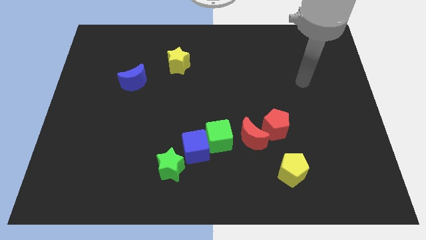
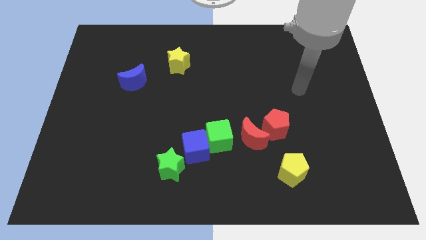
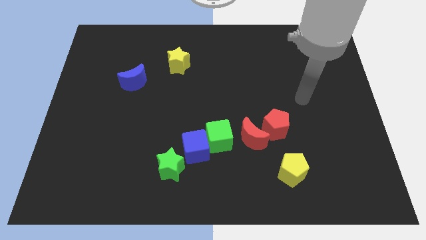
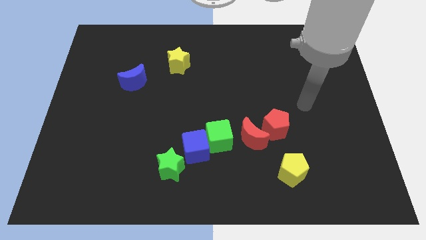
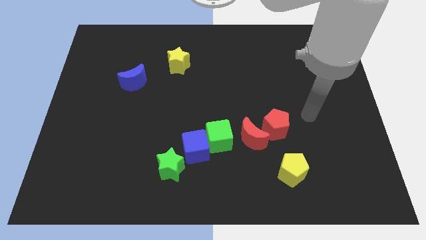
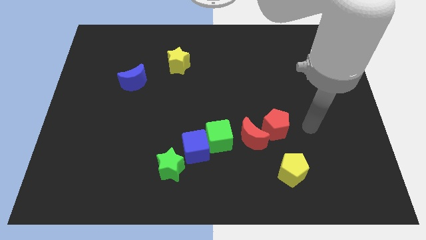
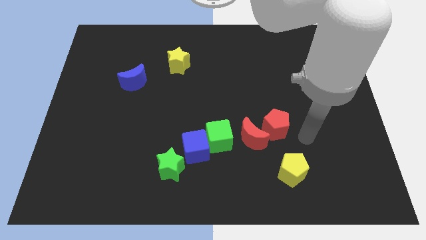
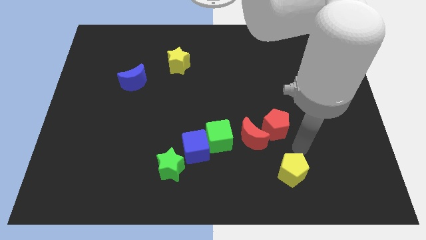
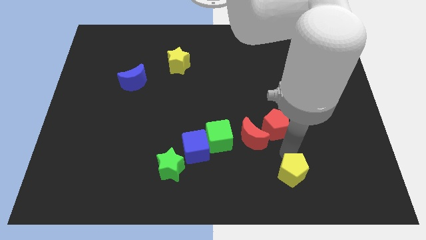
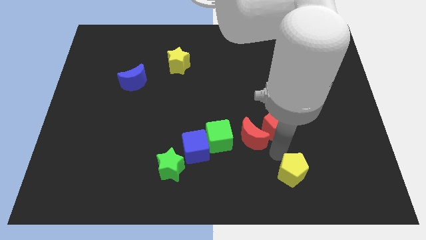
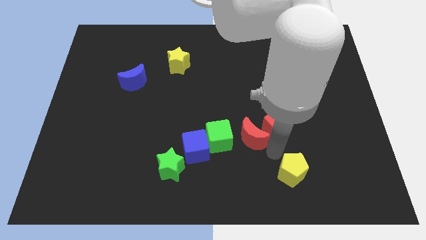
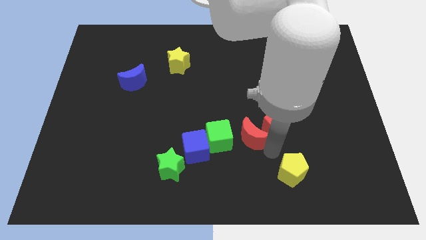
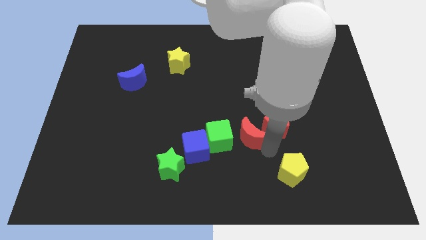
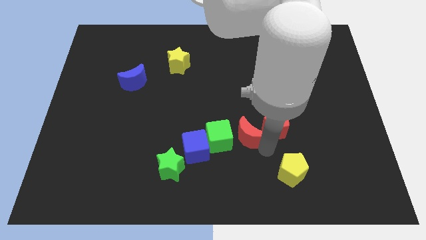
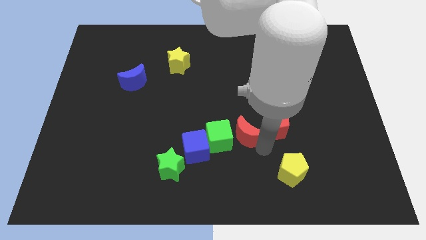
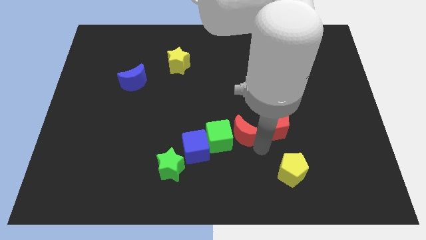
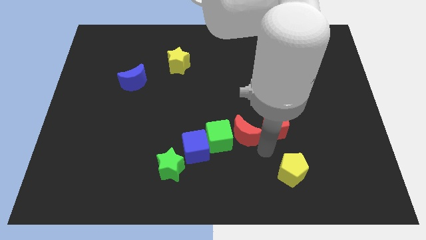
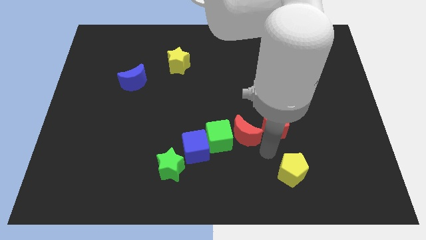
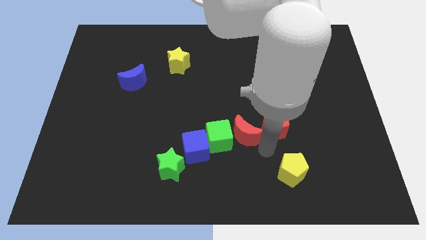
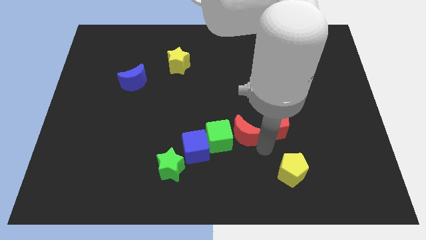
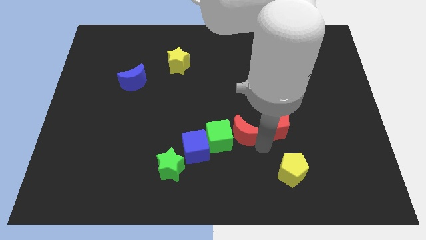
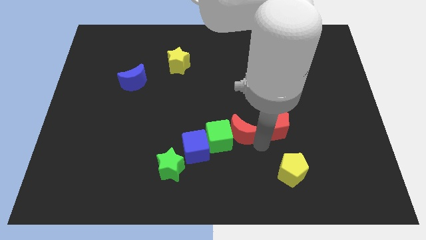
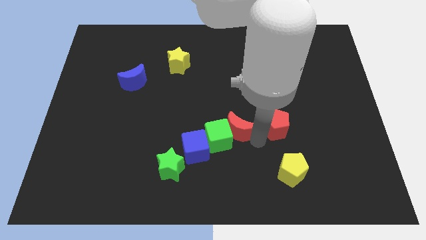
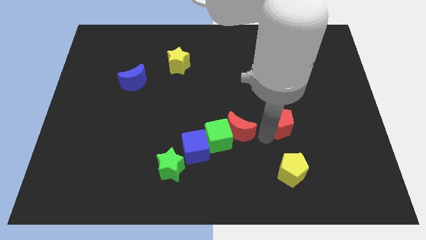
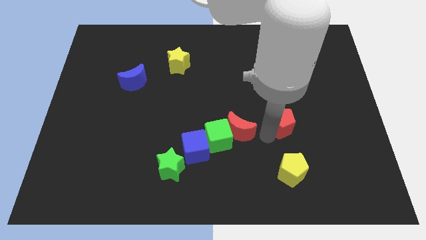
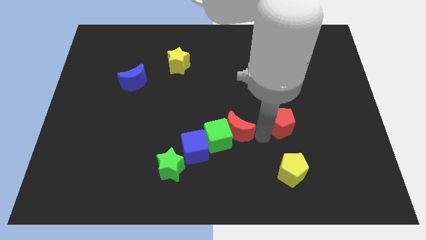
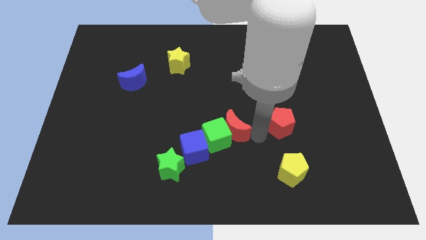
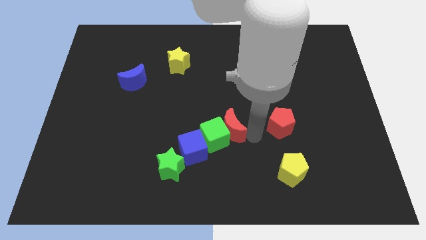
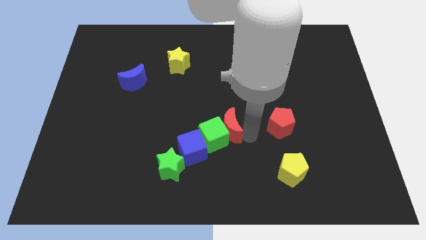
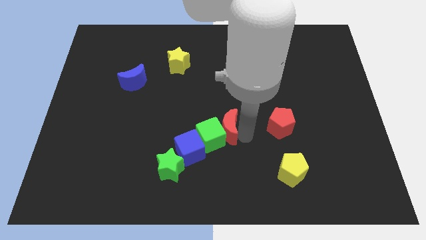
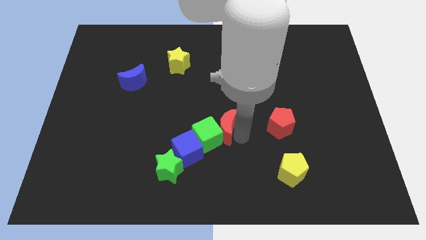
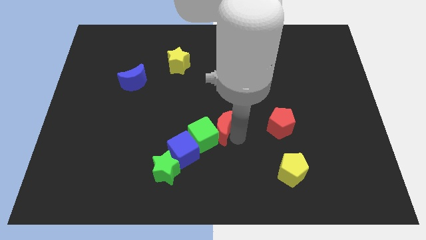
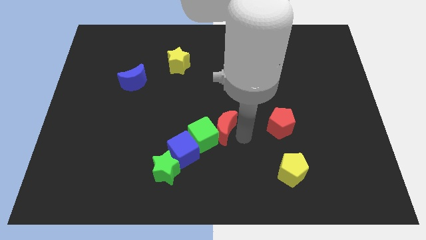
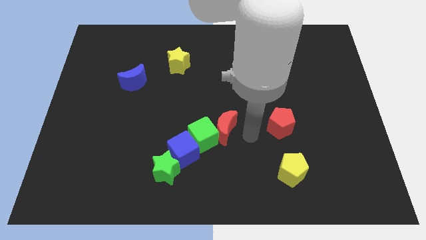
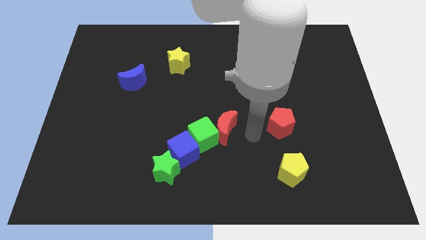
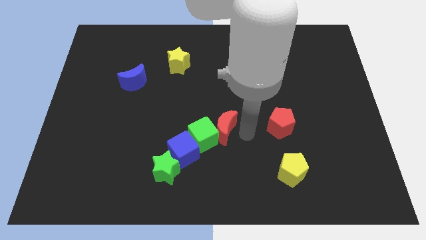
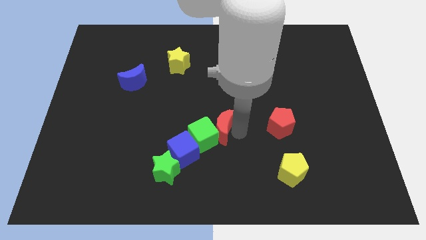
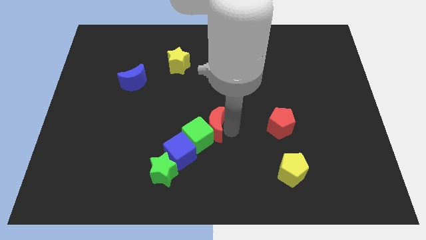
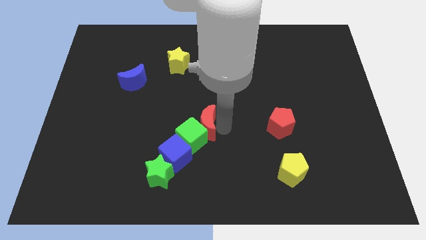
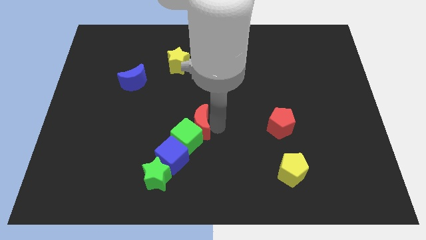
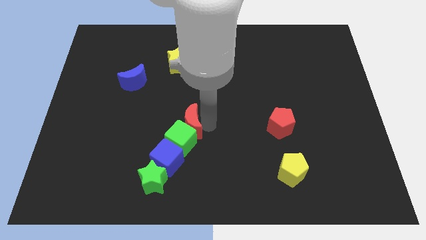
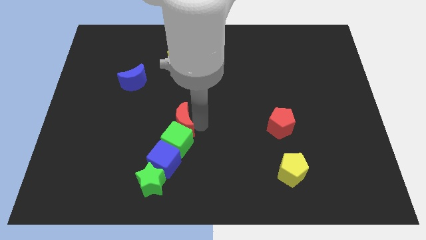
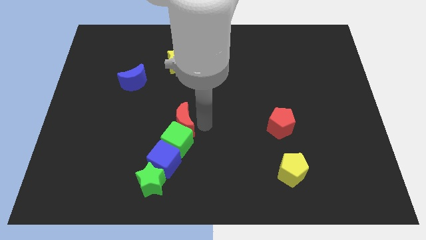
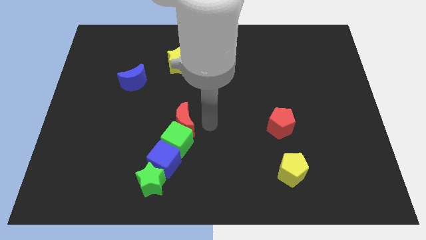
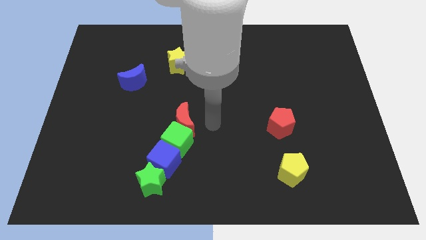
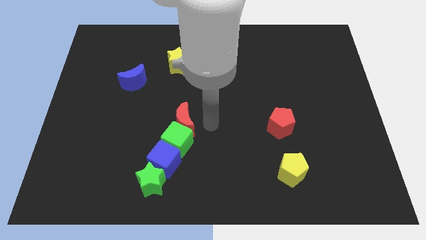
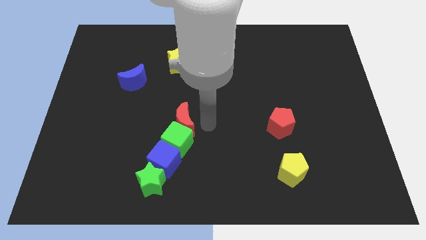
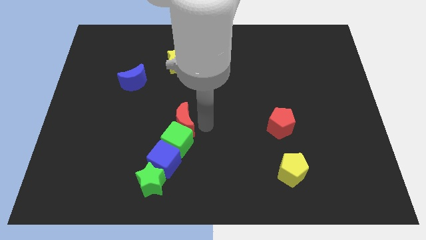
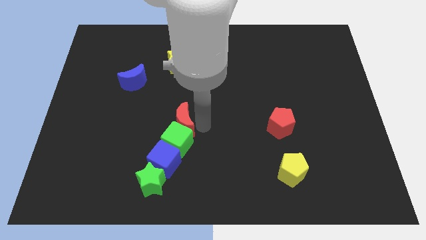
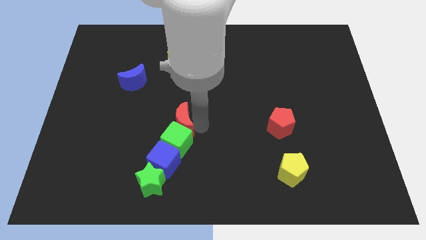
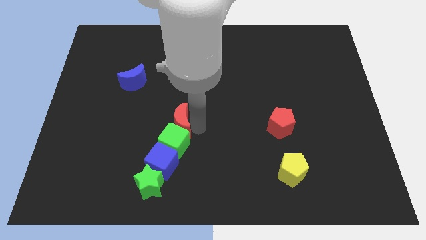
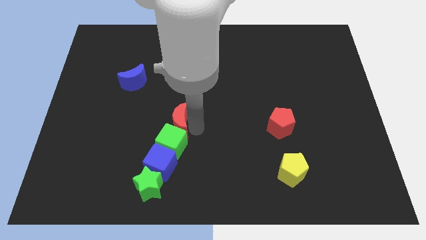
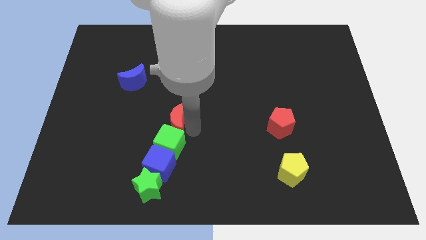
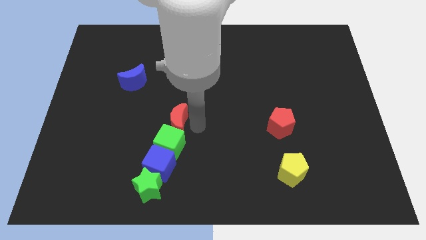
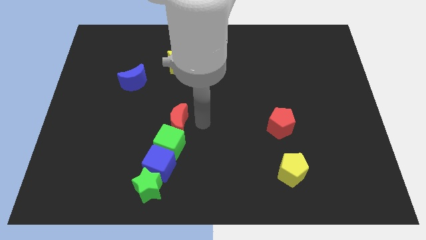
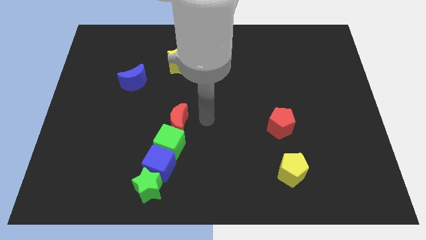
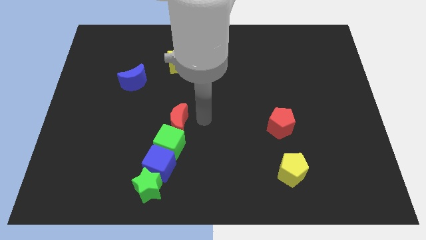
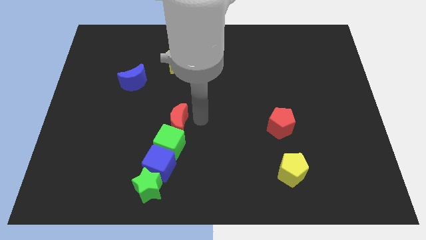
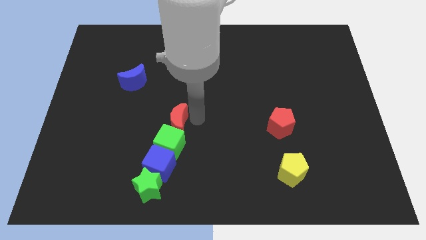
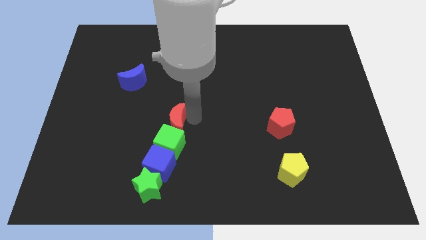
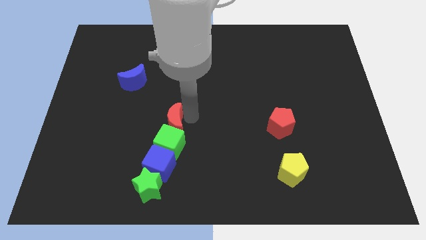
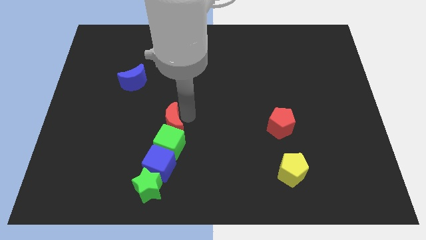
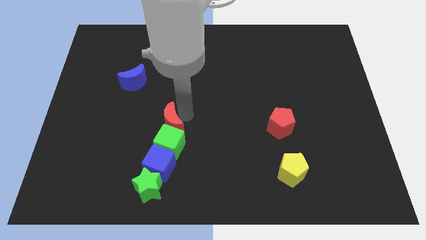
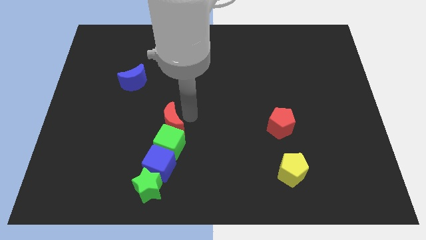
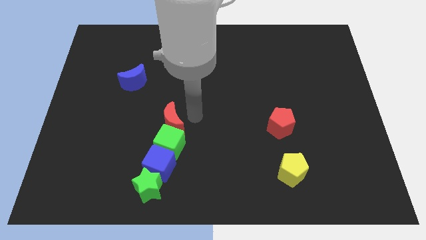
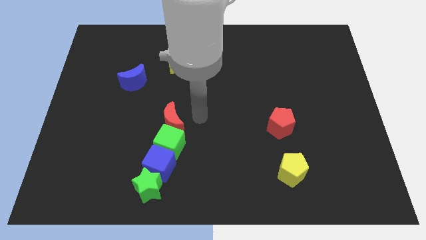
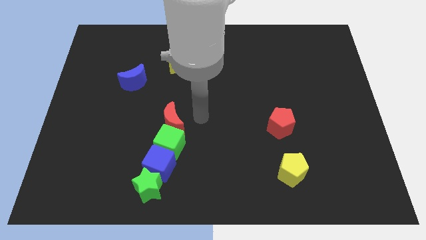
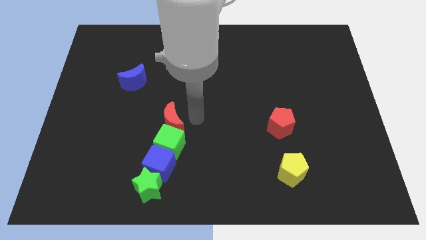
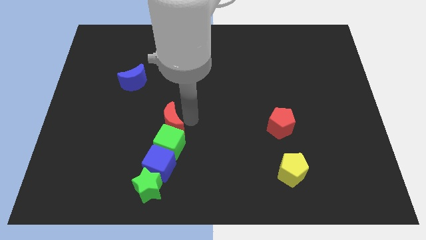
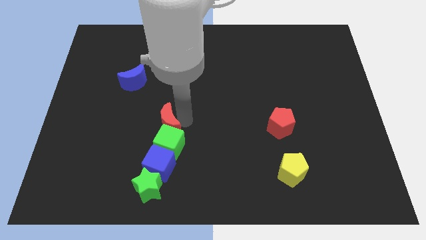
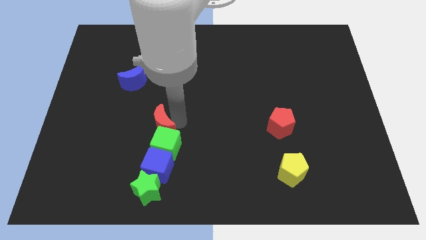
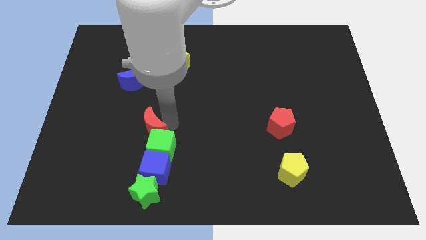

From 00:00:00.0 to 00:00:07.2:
push the red moon left

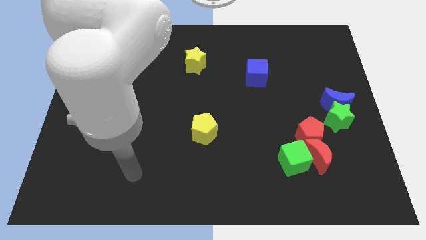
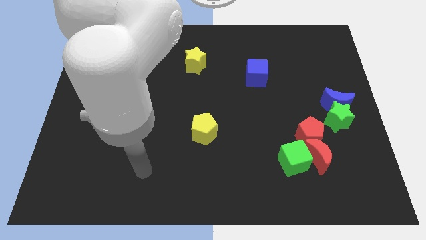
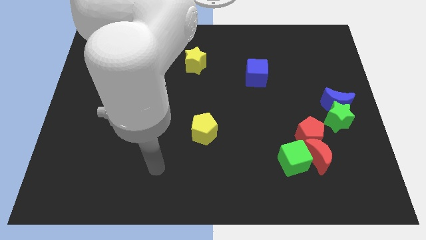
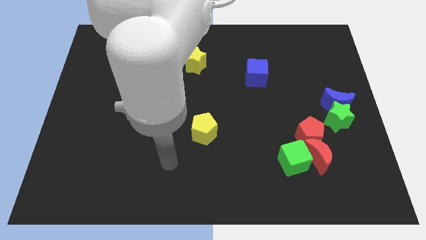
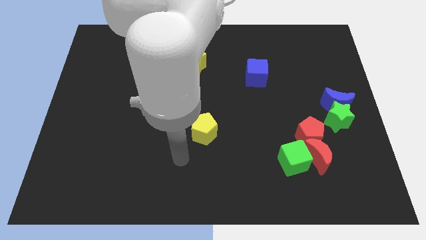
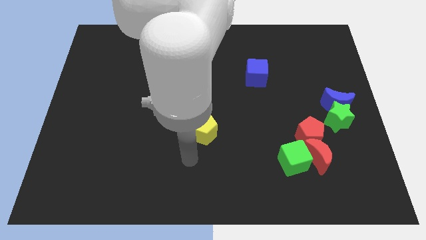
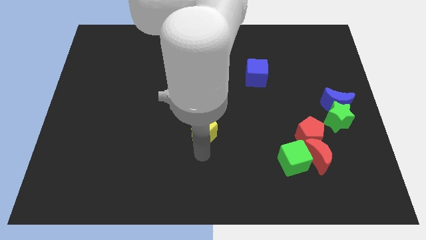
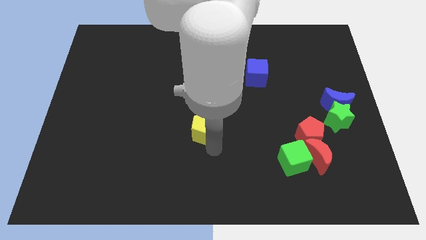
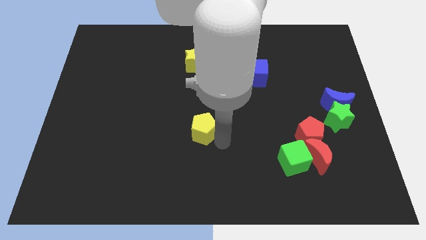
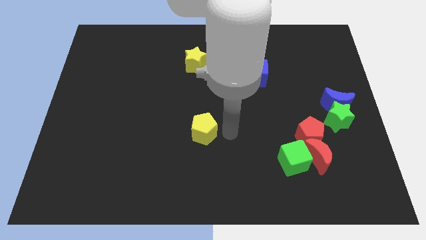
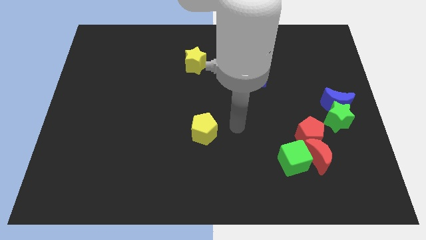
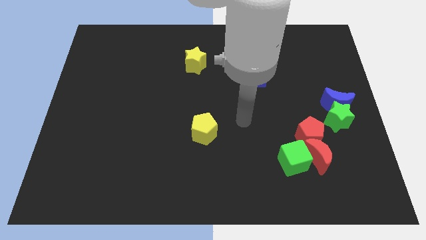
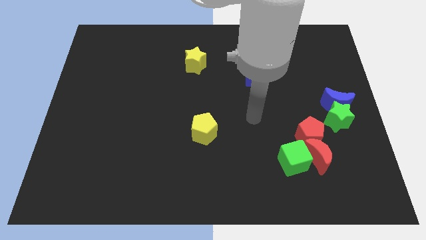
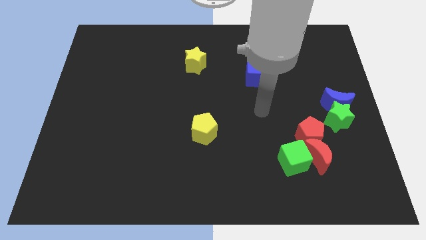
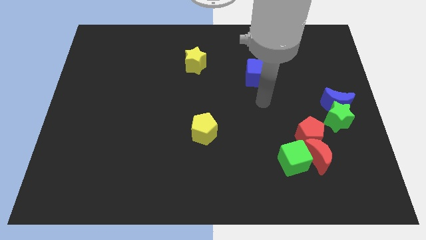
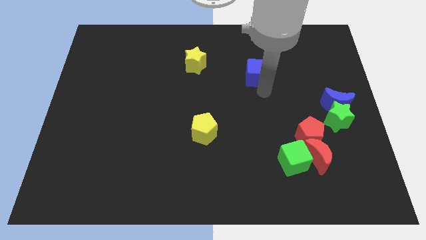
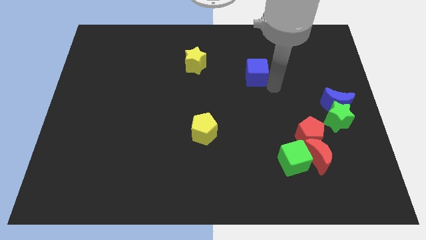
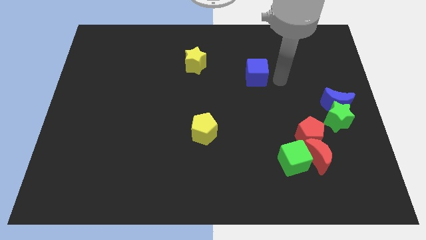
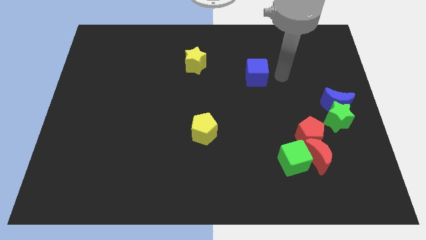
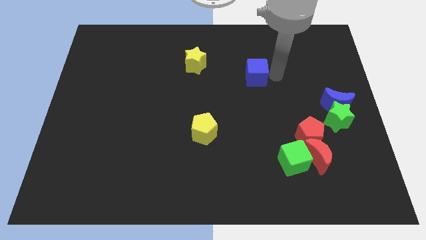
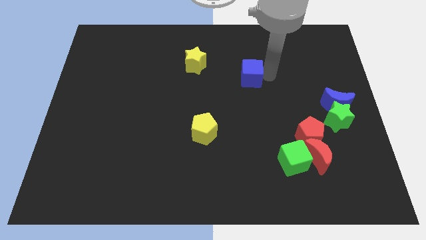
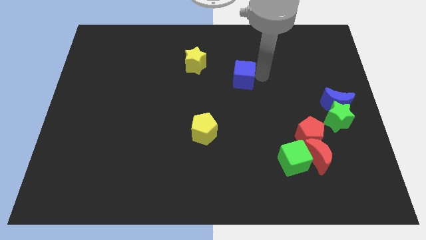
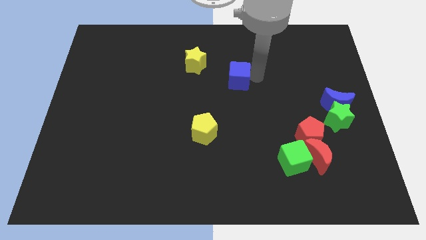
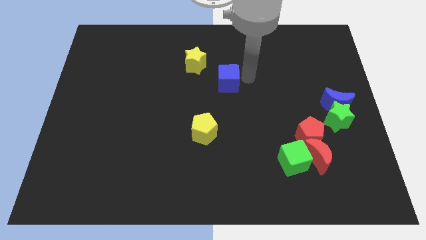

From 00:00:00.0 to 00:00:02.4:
slightly push the blue cube left
